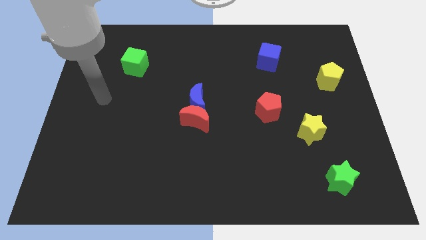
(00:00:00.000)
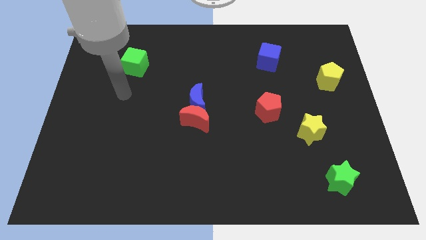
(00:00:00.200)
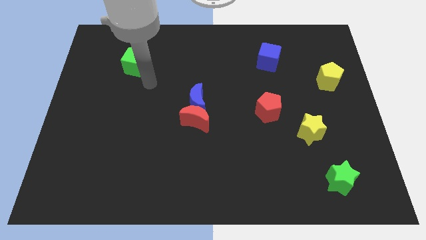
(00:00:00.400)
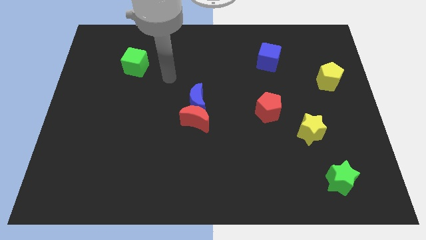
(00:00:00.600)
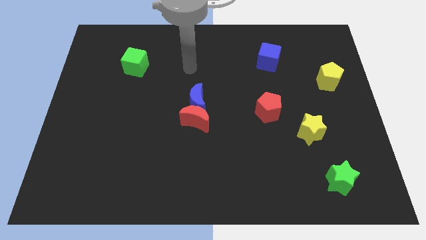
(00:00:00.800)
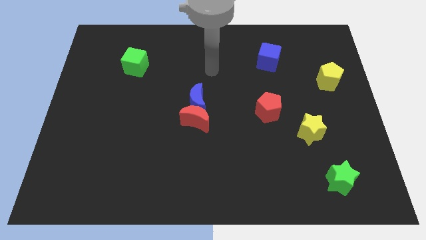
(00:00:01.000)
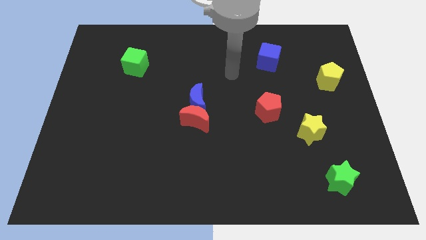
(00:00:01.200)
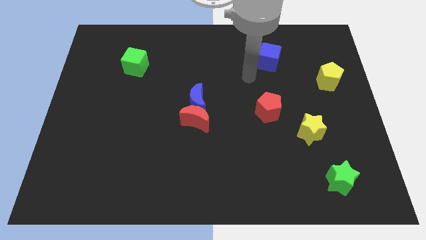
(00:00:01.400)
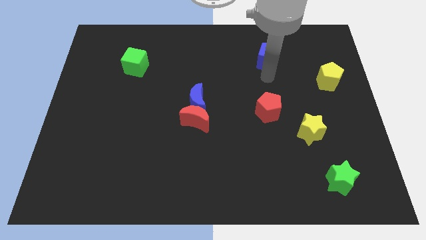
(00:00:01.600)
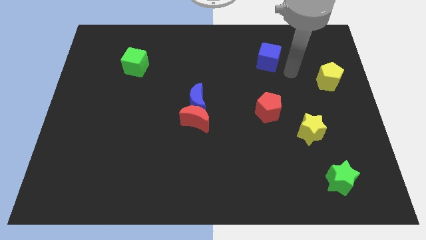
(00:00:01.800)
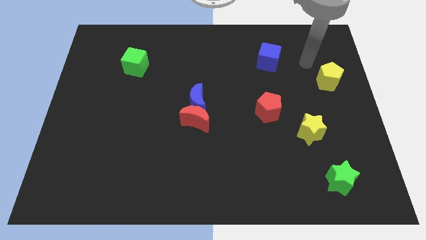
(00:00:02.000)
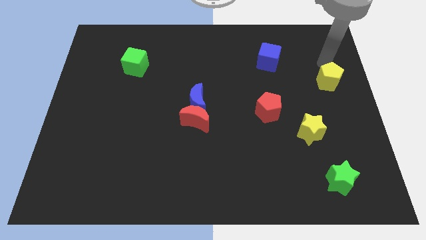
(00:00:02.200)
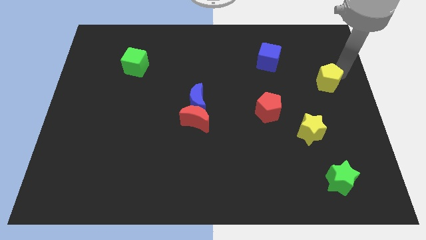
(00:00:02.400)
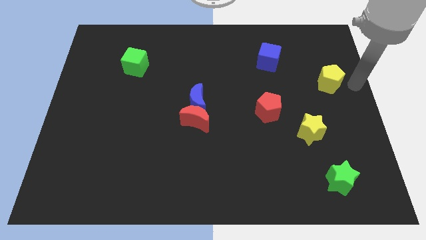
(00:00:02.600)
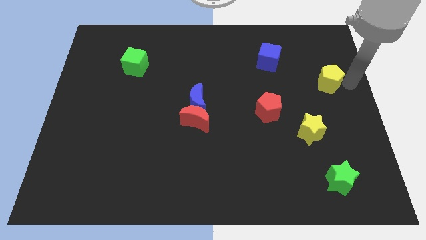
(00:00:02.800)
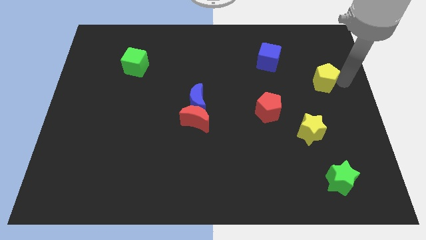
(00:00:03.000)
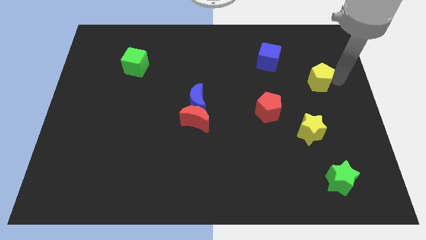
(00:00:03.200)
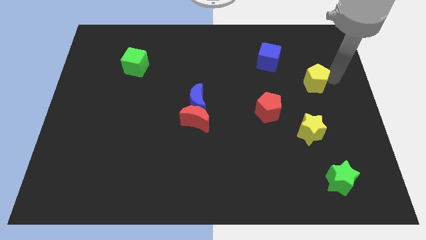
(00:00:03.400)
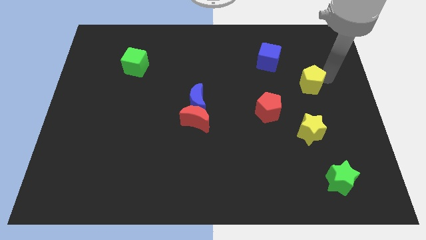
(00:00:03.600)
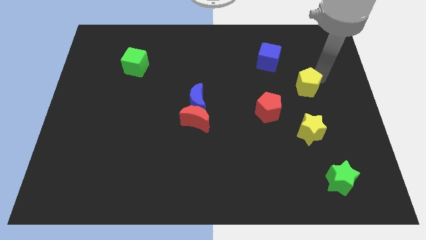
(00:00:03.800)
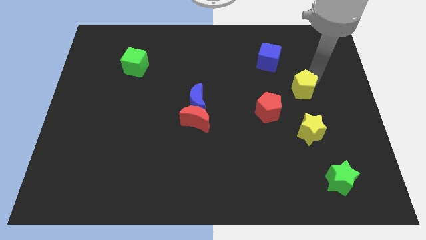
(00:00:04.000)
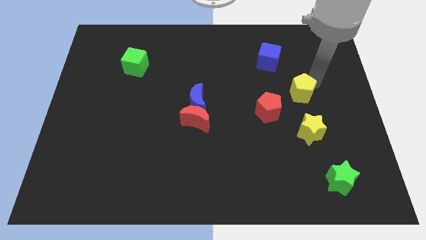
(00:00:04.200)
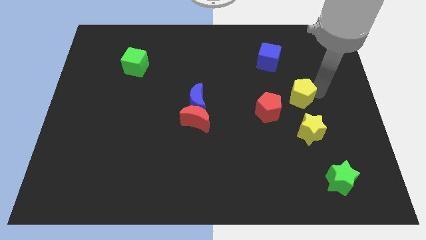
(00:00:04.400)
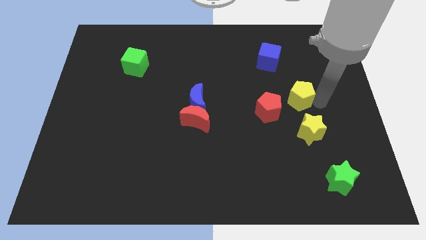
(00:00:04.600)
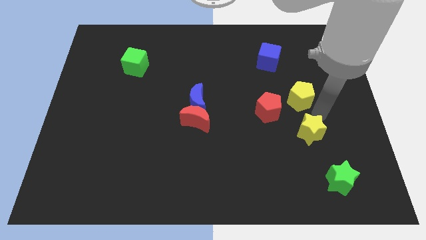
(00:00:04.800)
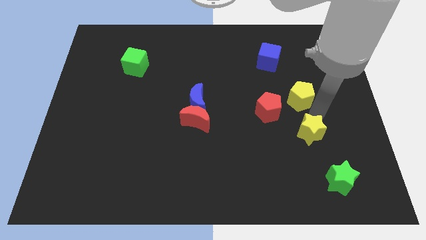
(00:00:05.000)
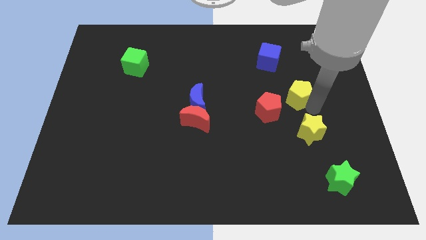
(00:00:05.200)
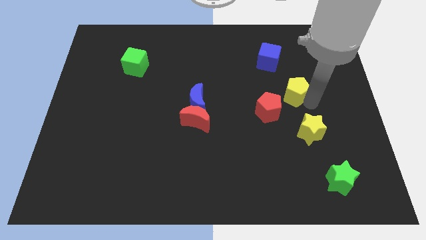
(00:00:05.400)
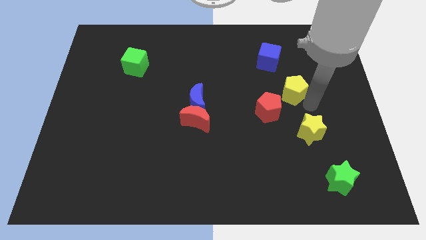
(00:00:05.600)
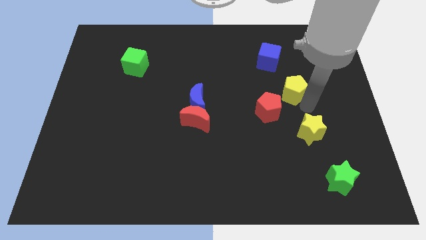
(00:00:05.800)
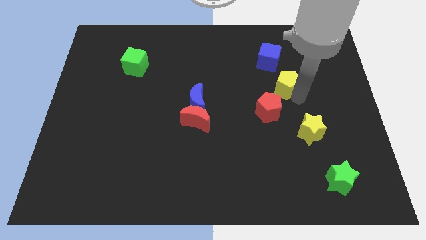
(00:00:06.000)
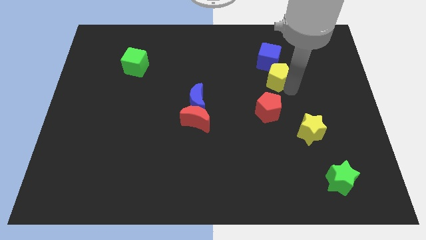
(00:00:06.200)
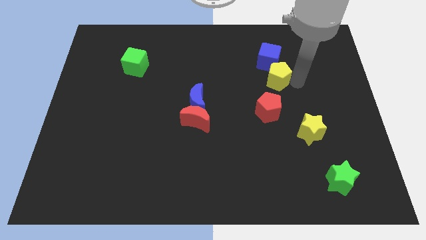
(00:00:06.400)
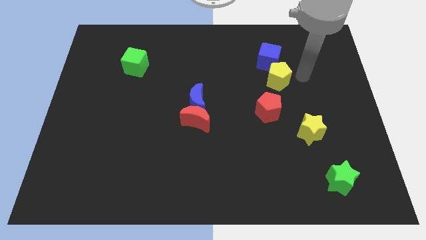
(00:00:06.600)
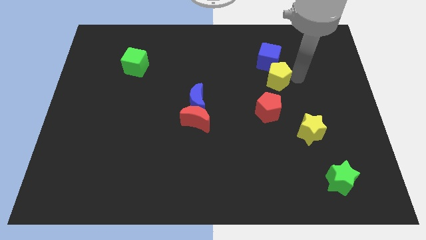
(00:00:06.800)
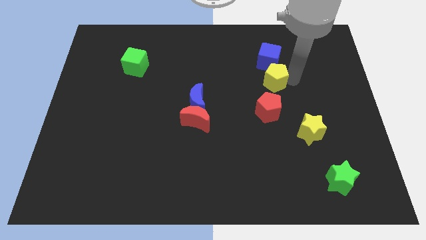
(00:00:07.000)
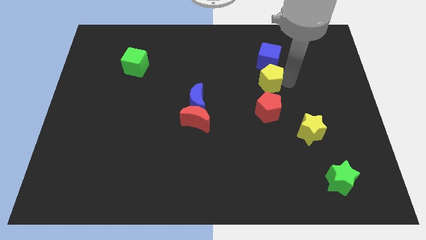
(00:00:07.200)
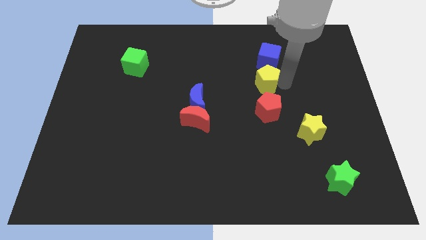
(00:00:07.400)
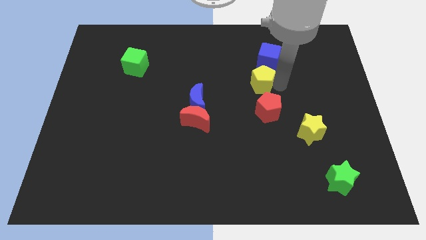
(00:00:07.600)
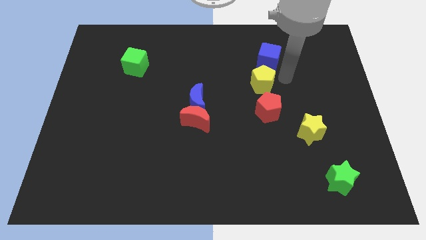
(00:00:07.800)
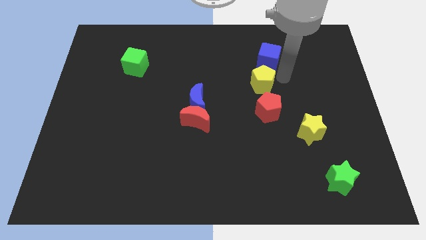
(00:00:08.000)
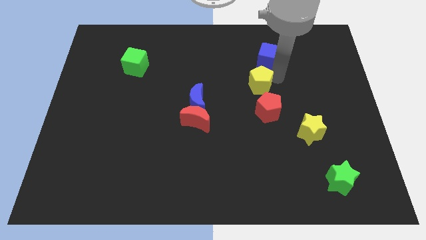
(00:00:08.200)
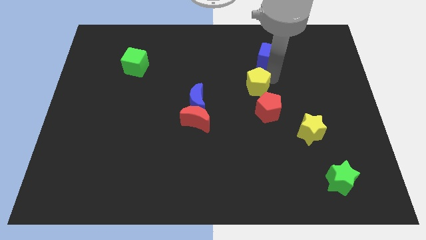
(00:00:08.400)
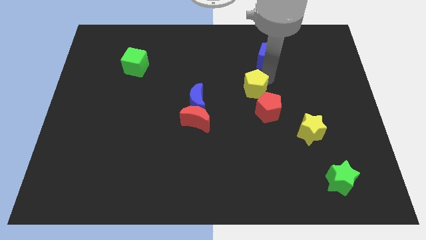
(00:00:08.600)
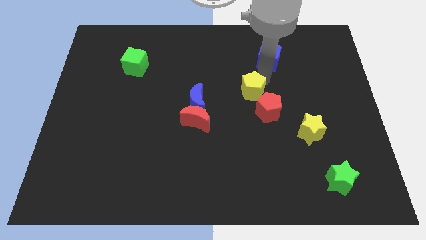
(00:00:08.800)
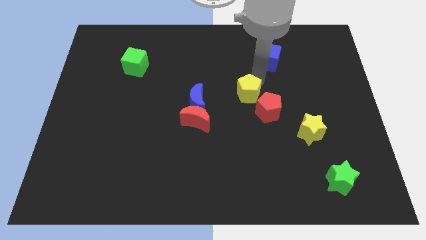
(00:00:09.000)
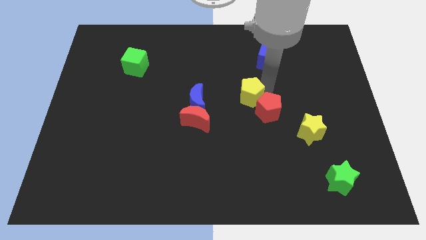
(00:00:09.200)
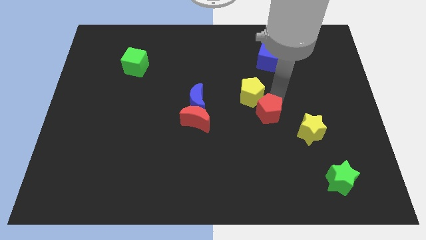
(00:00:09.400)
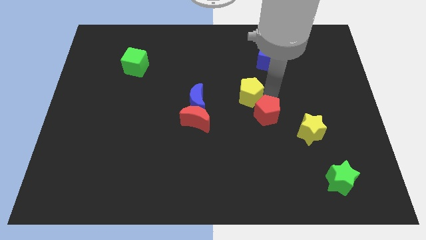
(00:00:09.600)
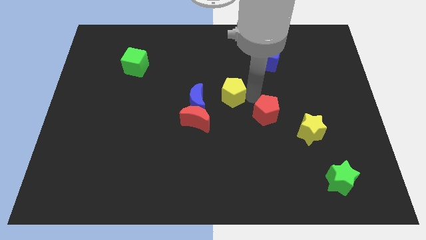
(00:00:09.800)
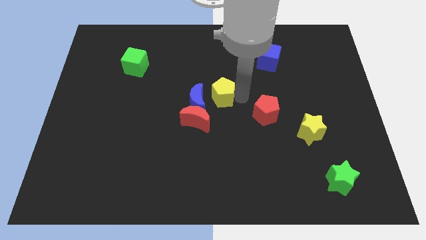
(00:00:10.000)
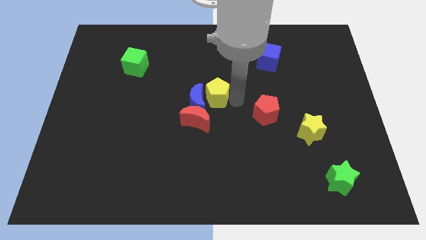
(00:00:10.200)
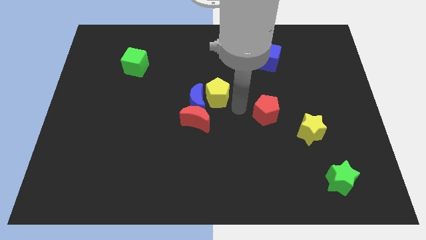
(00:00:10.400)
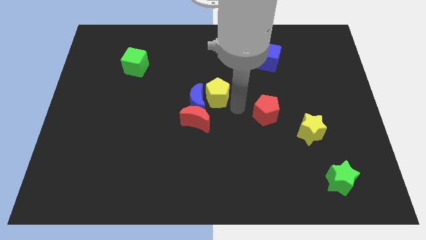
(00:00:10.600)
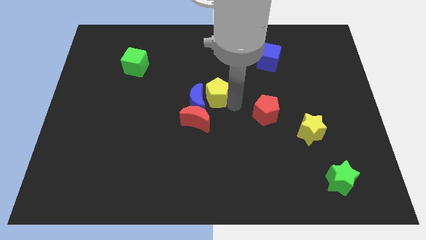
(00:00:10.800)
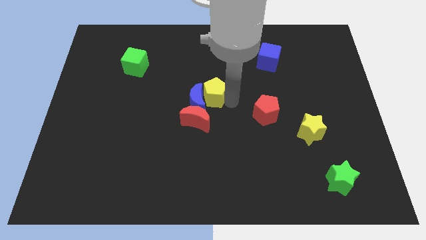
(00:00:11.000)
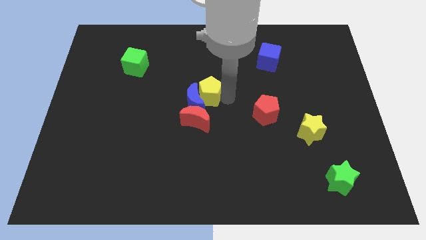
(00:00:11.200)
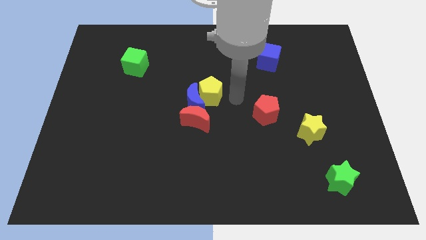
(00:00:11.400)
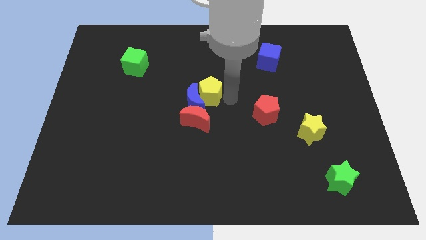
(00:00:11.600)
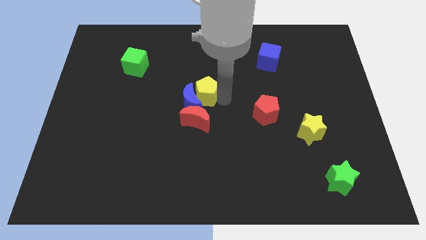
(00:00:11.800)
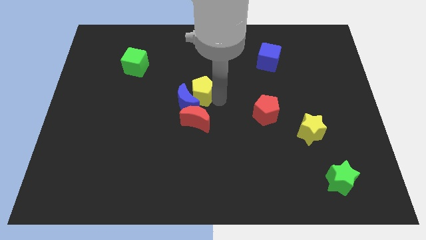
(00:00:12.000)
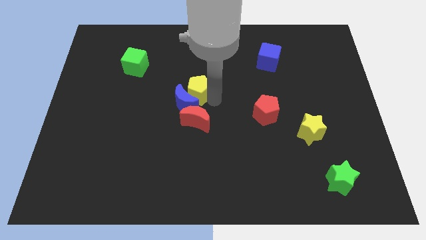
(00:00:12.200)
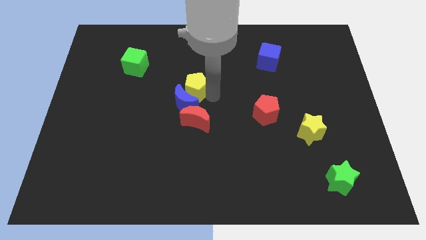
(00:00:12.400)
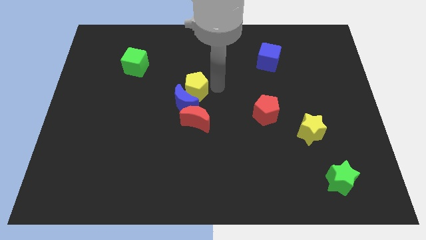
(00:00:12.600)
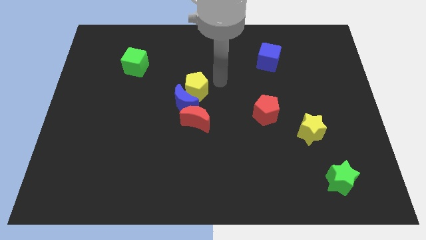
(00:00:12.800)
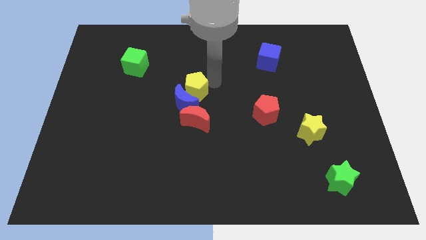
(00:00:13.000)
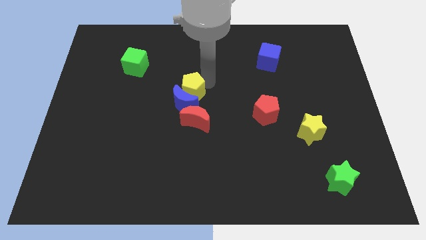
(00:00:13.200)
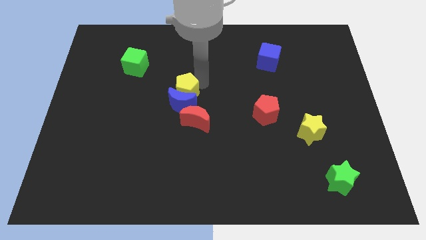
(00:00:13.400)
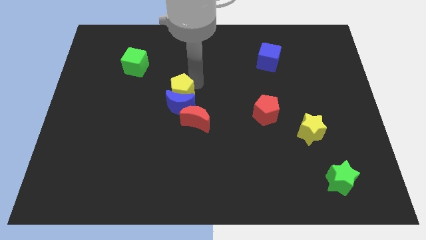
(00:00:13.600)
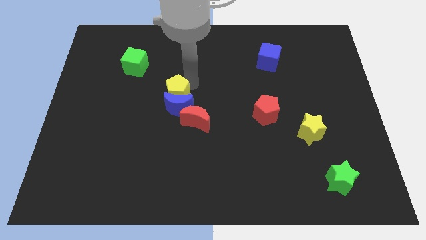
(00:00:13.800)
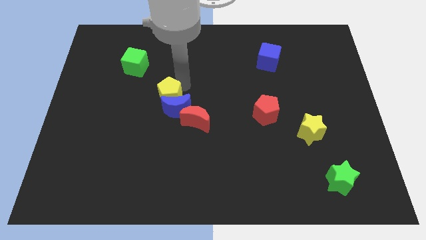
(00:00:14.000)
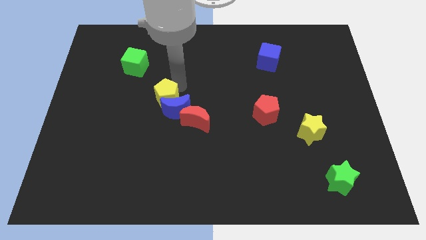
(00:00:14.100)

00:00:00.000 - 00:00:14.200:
push the yellow pentagon just left of the blue moon
